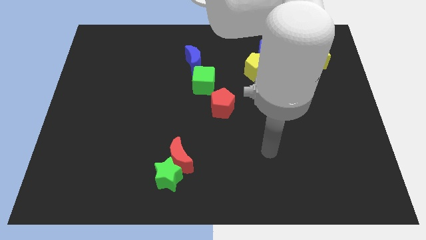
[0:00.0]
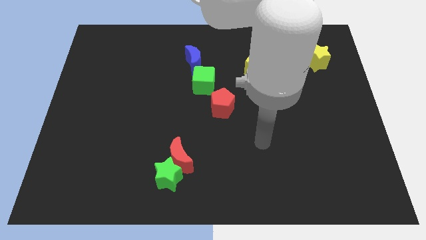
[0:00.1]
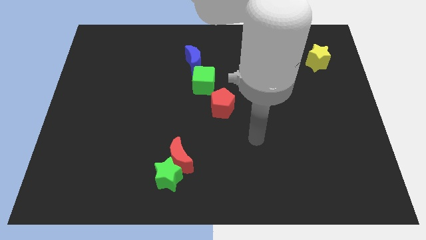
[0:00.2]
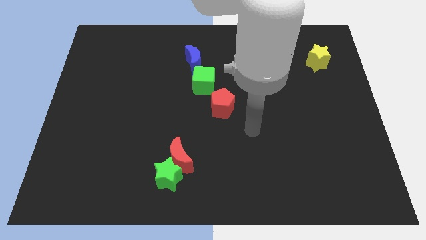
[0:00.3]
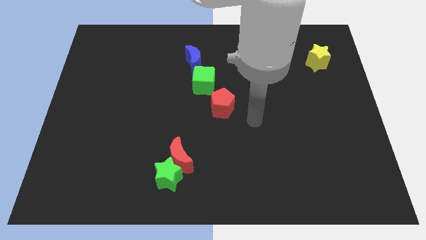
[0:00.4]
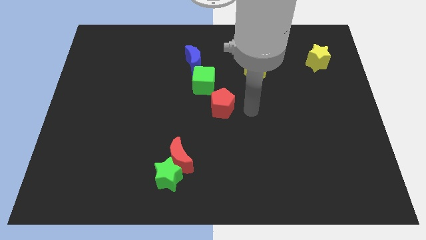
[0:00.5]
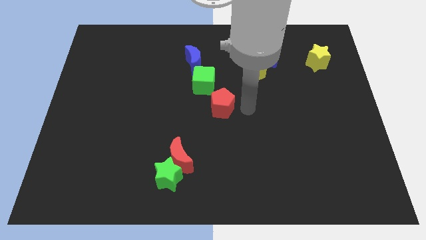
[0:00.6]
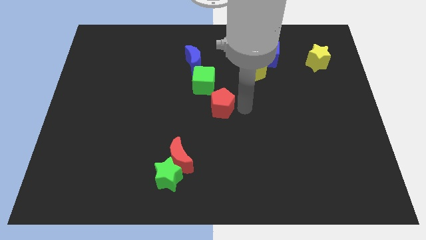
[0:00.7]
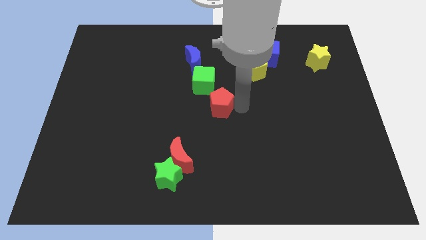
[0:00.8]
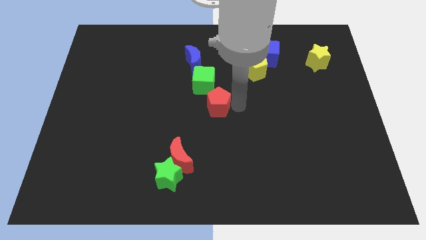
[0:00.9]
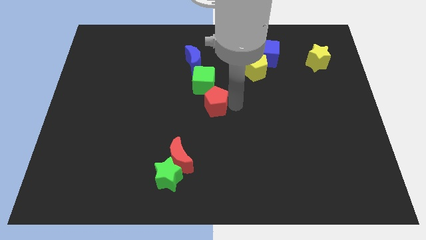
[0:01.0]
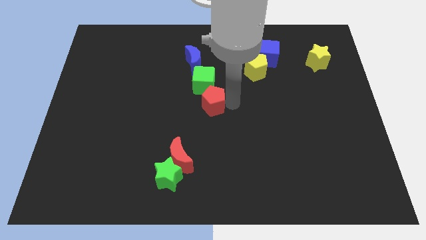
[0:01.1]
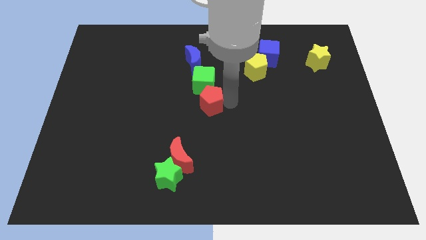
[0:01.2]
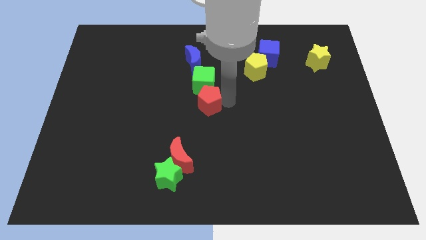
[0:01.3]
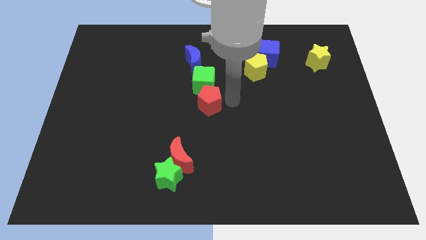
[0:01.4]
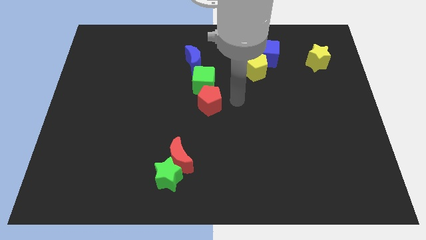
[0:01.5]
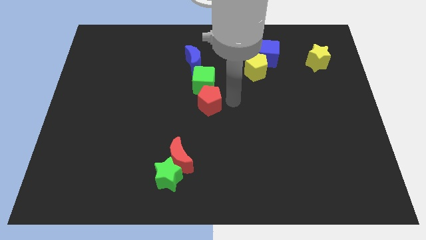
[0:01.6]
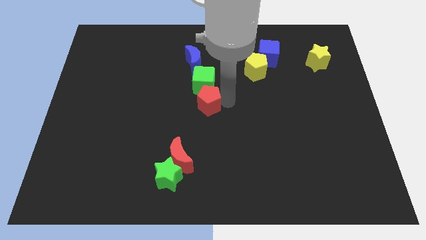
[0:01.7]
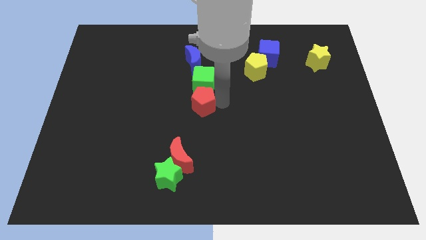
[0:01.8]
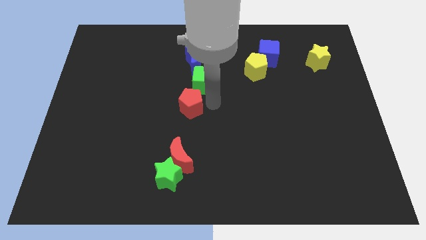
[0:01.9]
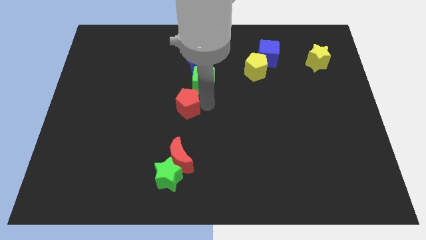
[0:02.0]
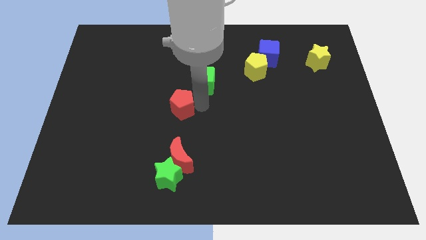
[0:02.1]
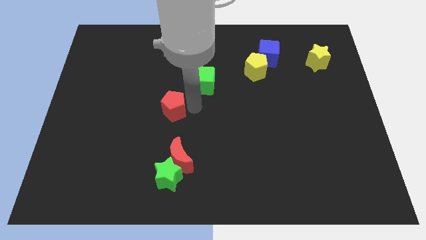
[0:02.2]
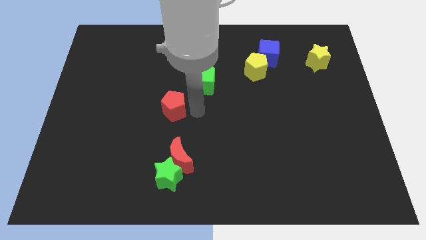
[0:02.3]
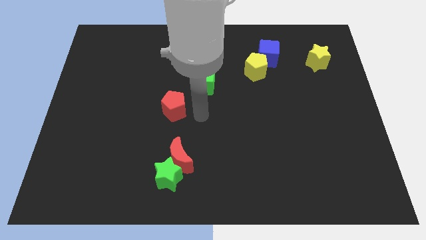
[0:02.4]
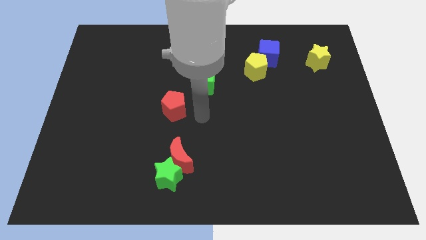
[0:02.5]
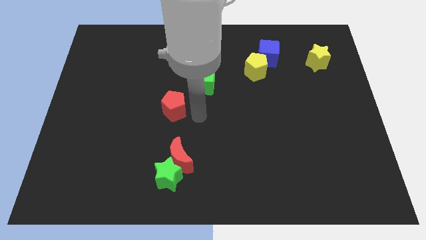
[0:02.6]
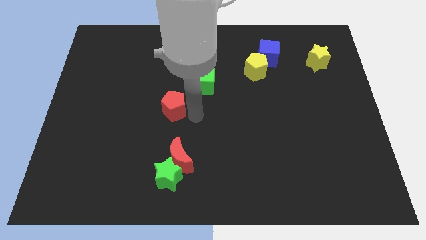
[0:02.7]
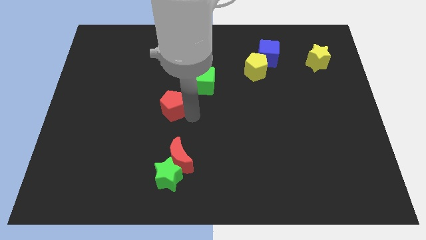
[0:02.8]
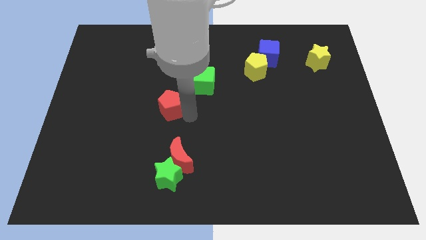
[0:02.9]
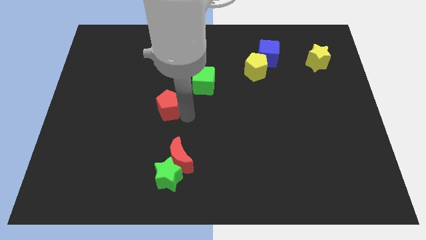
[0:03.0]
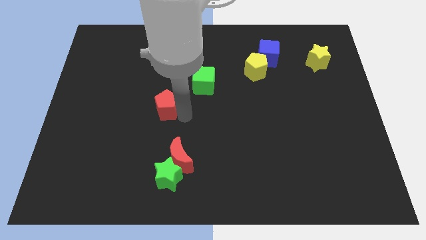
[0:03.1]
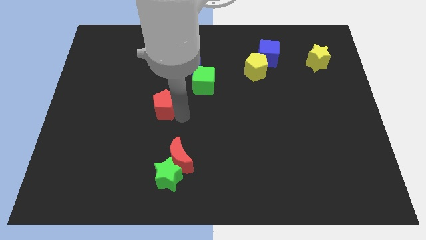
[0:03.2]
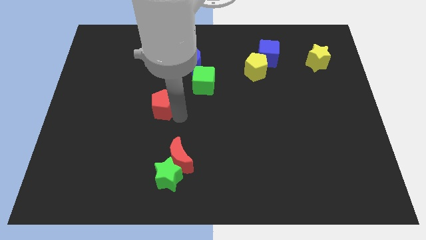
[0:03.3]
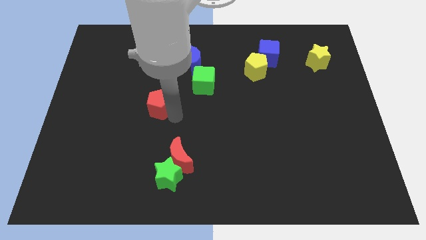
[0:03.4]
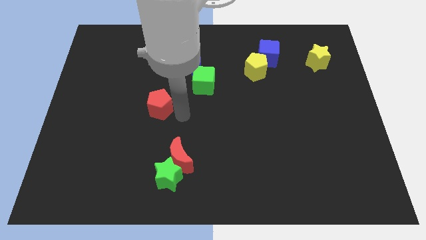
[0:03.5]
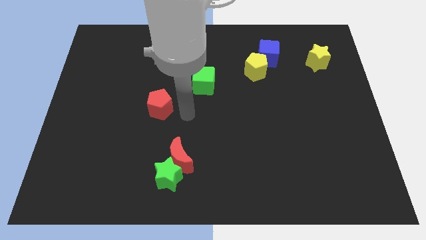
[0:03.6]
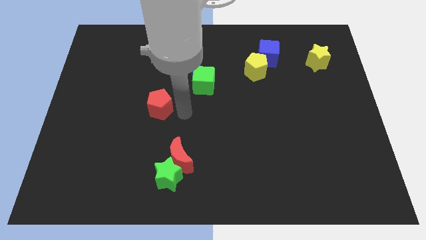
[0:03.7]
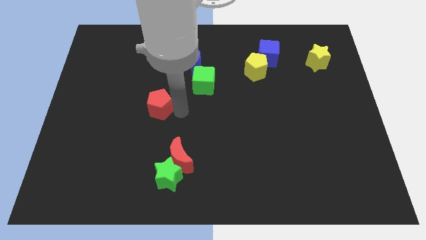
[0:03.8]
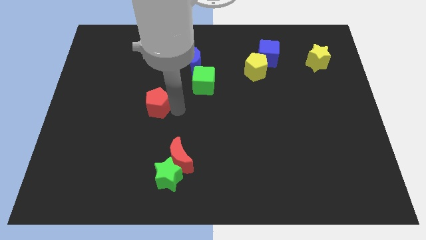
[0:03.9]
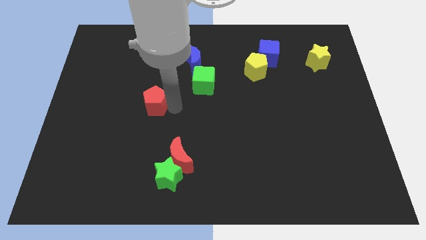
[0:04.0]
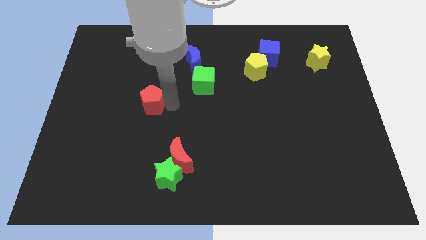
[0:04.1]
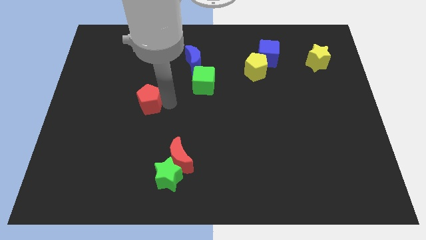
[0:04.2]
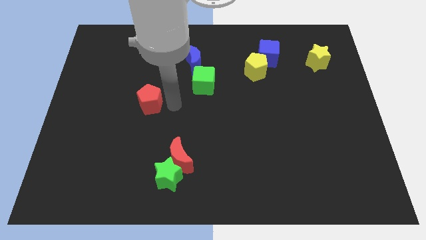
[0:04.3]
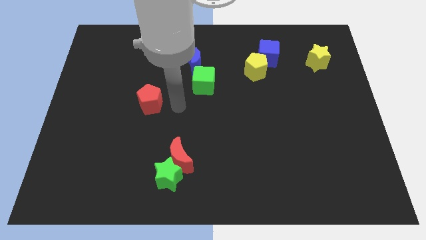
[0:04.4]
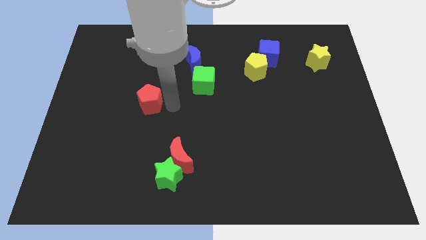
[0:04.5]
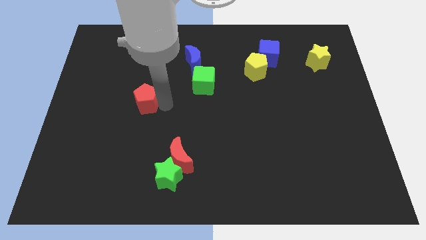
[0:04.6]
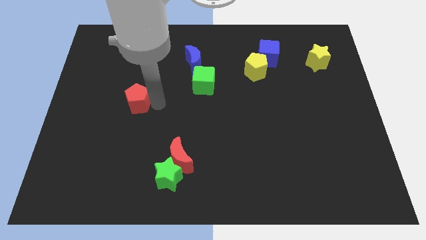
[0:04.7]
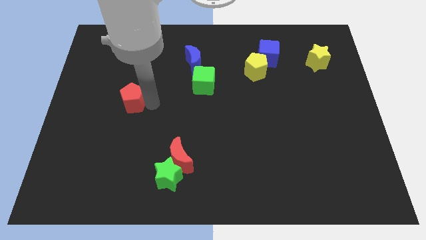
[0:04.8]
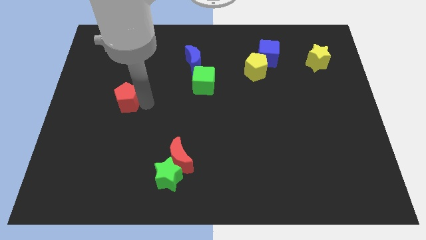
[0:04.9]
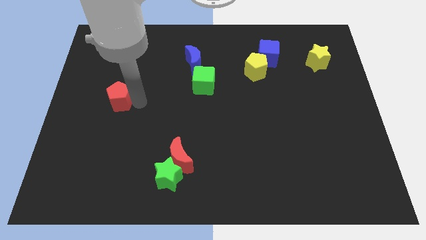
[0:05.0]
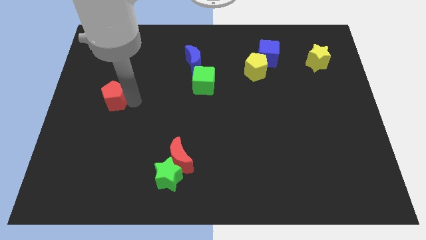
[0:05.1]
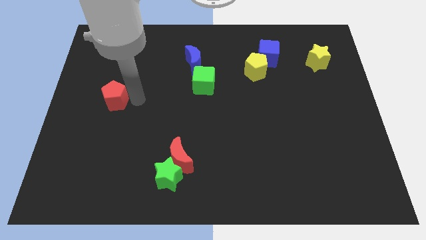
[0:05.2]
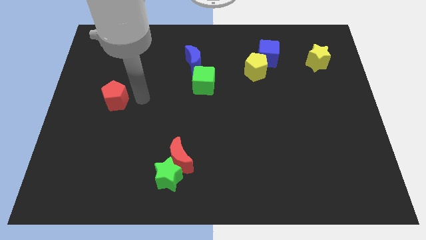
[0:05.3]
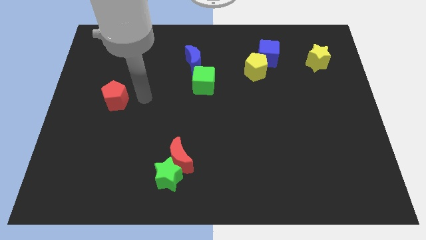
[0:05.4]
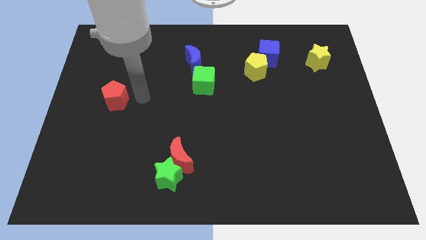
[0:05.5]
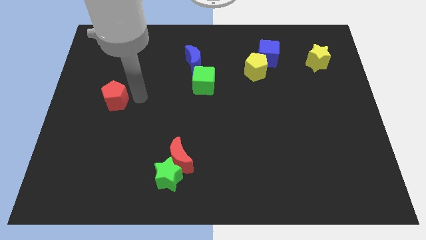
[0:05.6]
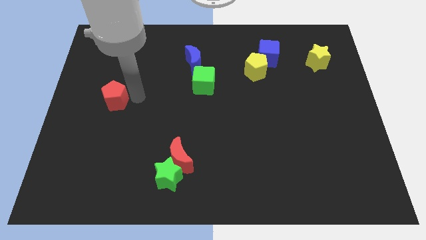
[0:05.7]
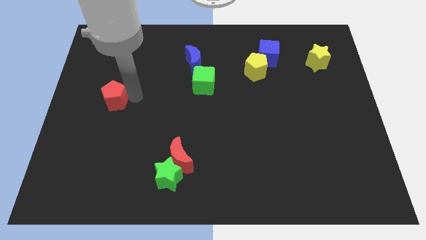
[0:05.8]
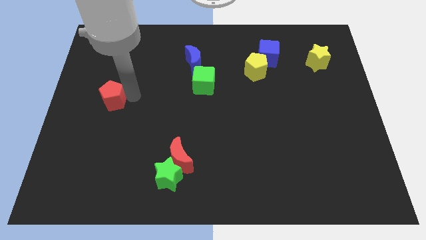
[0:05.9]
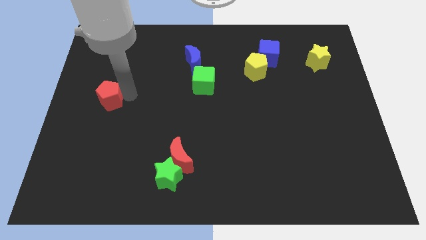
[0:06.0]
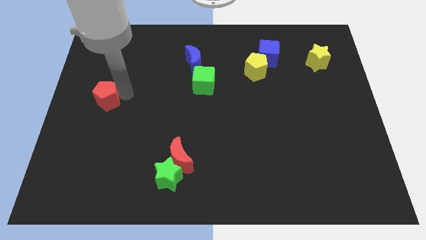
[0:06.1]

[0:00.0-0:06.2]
move the red pentagon to the center left
